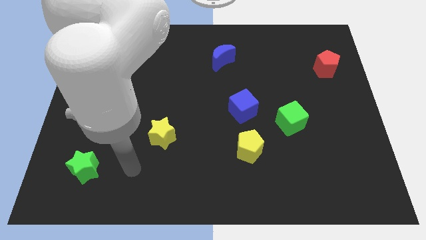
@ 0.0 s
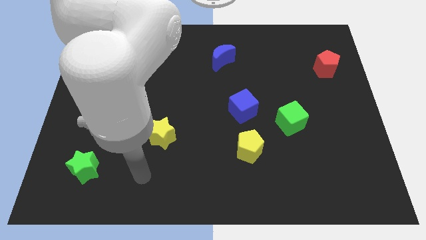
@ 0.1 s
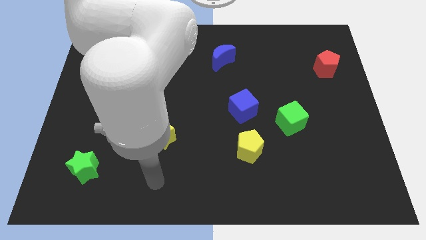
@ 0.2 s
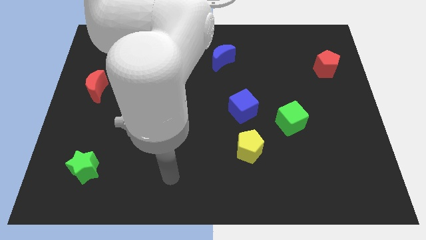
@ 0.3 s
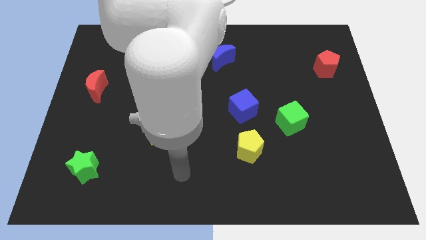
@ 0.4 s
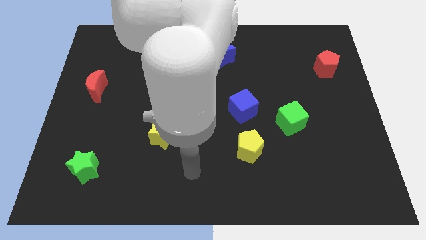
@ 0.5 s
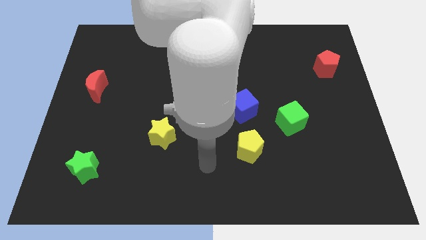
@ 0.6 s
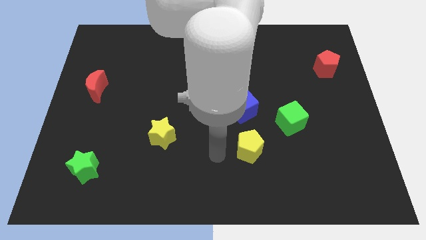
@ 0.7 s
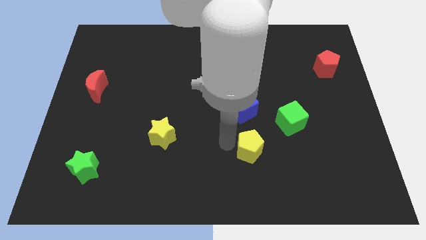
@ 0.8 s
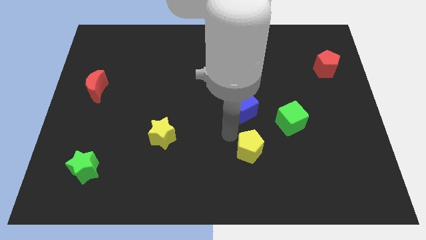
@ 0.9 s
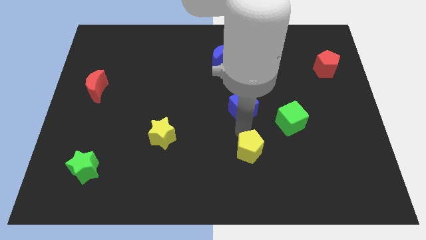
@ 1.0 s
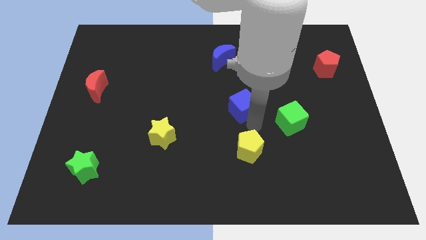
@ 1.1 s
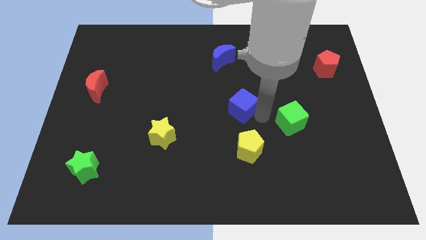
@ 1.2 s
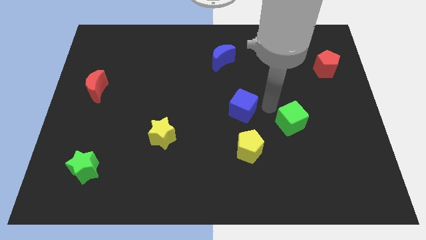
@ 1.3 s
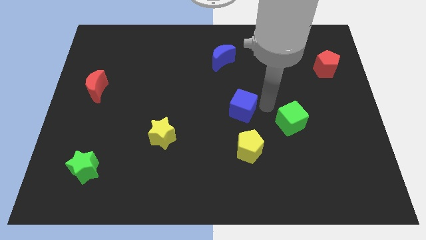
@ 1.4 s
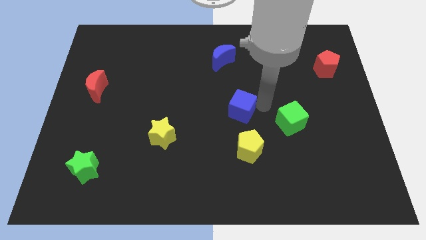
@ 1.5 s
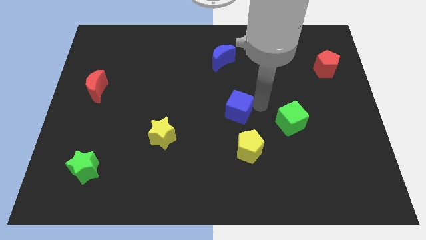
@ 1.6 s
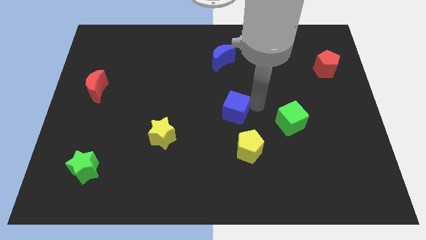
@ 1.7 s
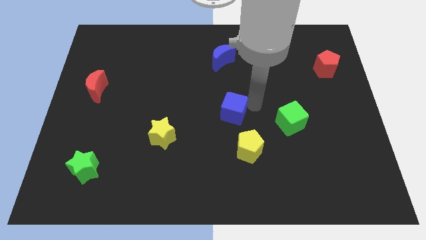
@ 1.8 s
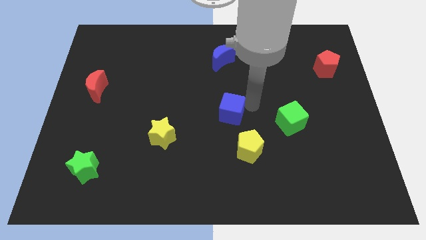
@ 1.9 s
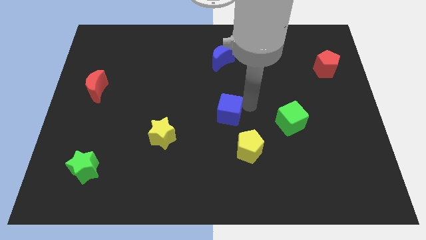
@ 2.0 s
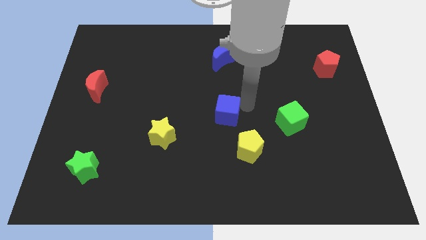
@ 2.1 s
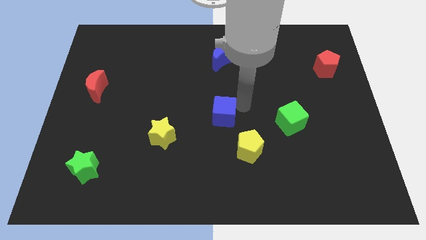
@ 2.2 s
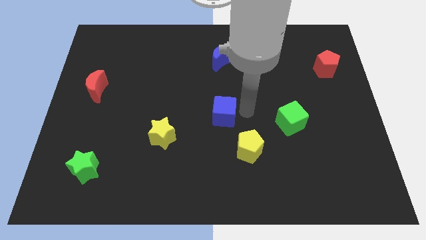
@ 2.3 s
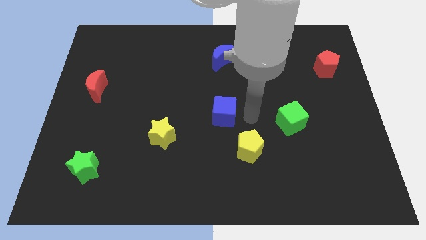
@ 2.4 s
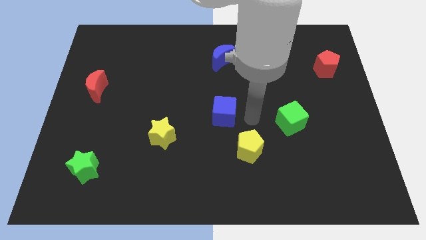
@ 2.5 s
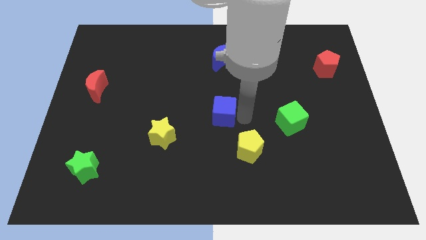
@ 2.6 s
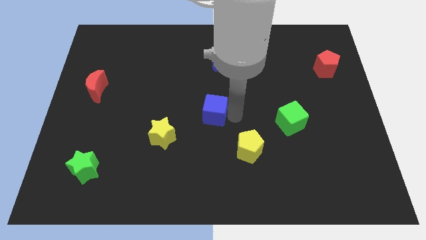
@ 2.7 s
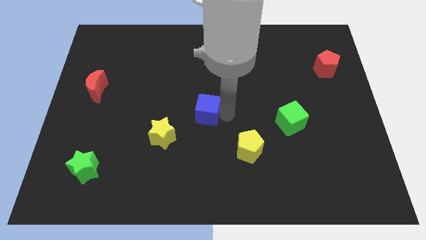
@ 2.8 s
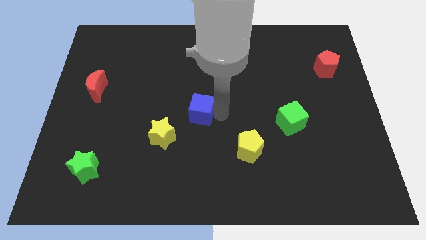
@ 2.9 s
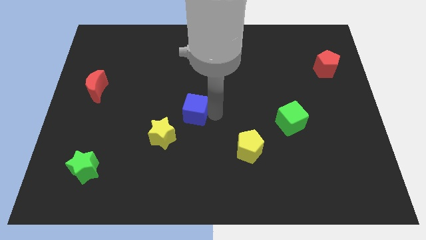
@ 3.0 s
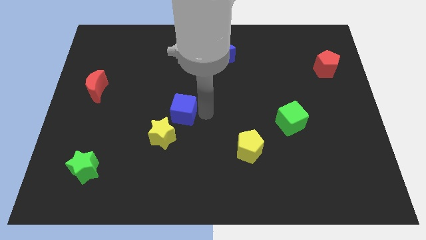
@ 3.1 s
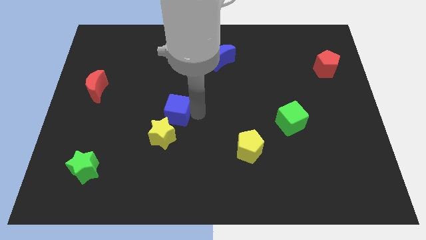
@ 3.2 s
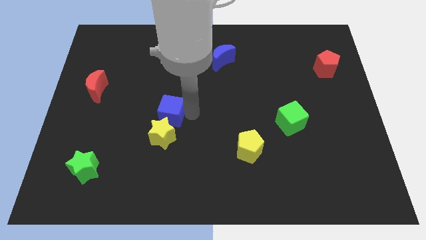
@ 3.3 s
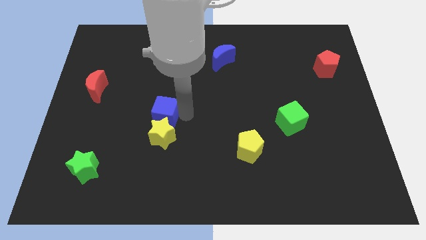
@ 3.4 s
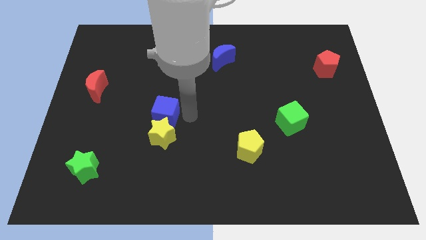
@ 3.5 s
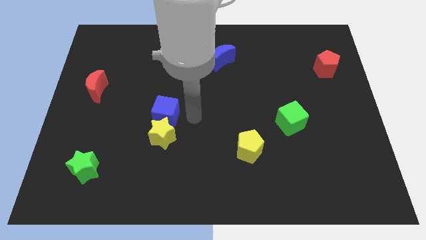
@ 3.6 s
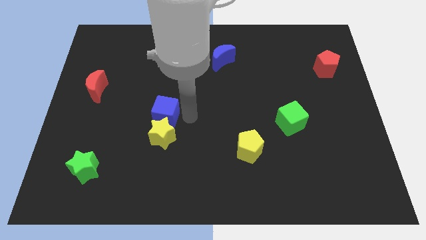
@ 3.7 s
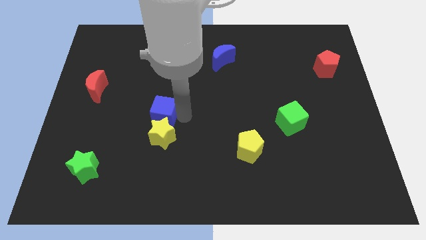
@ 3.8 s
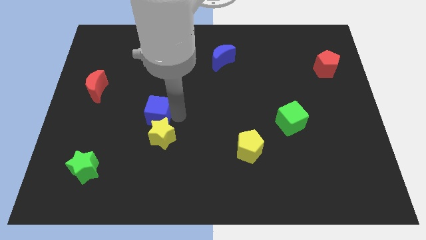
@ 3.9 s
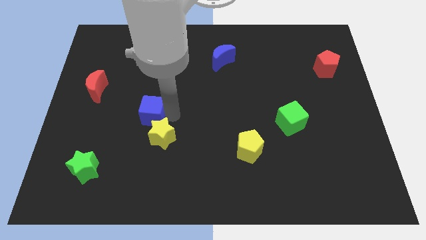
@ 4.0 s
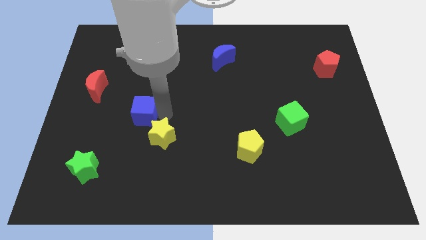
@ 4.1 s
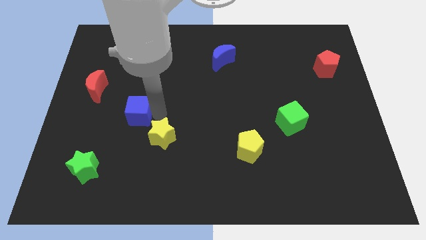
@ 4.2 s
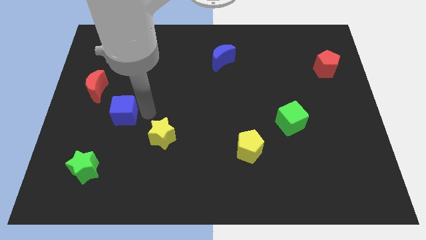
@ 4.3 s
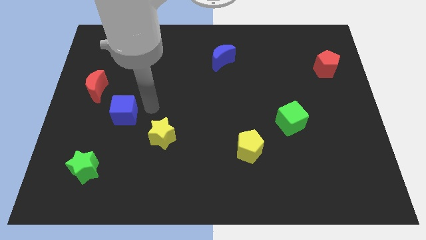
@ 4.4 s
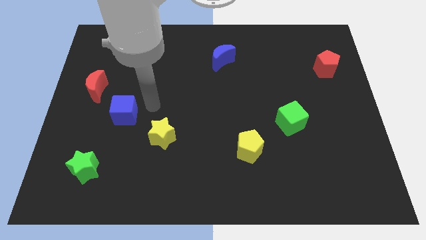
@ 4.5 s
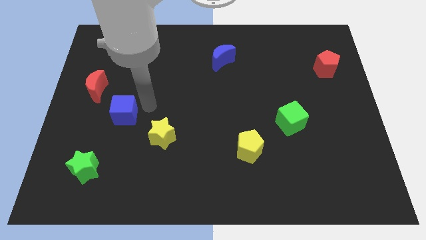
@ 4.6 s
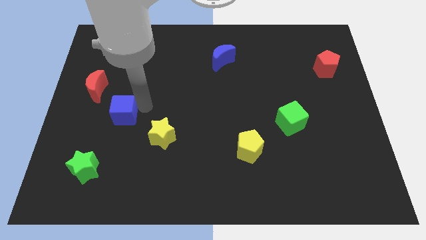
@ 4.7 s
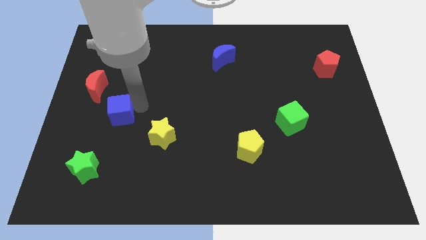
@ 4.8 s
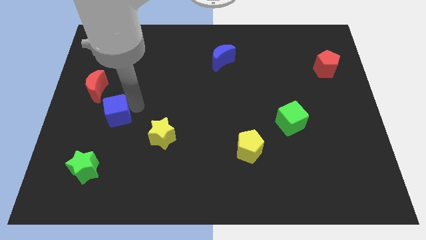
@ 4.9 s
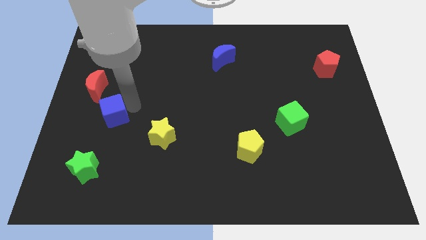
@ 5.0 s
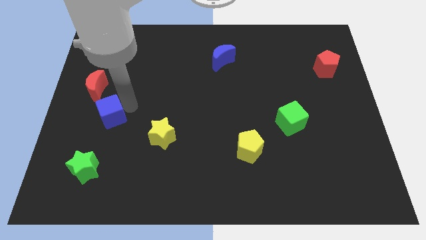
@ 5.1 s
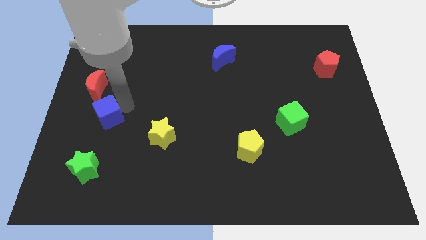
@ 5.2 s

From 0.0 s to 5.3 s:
put the blue cube to the bottom of the red moon

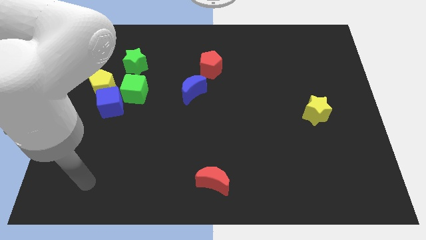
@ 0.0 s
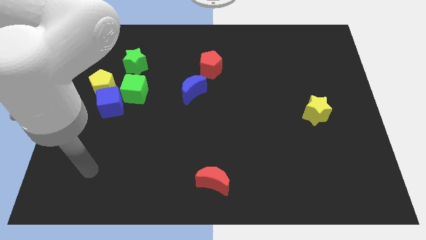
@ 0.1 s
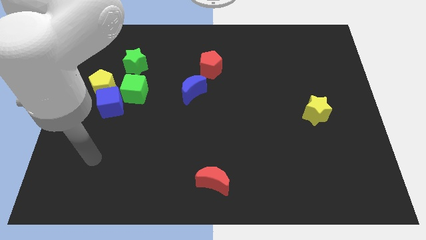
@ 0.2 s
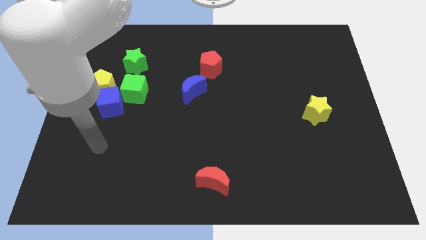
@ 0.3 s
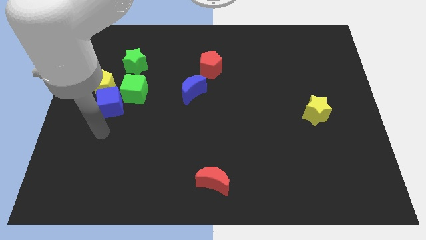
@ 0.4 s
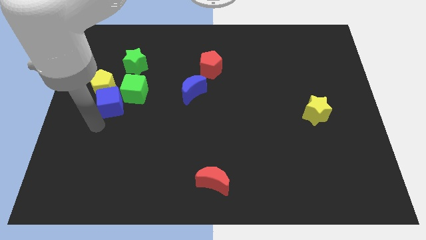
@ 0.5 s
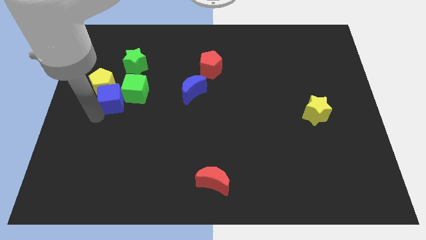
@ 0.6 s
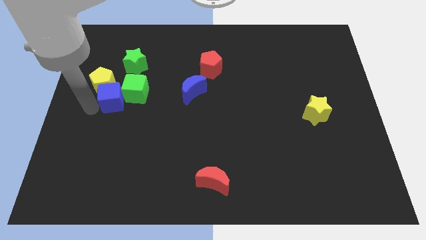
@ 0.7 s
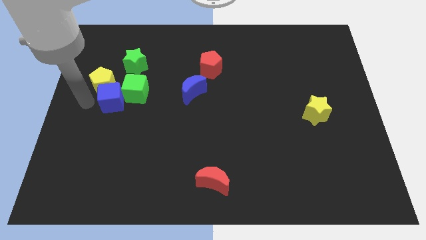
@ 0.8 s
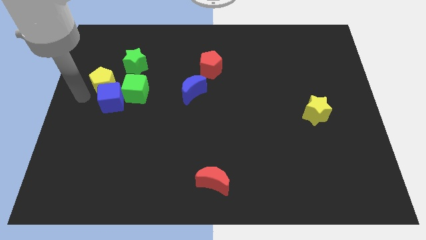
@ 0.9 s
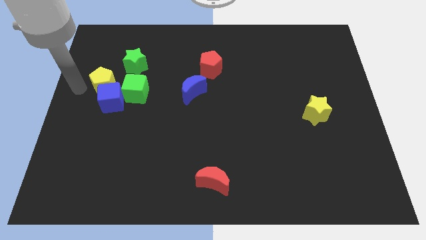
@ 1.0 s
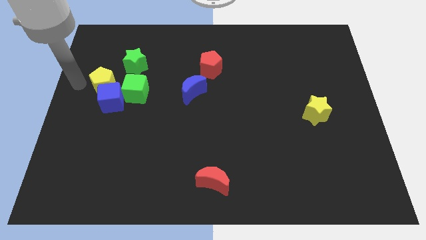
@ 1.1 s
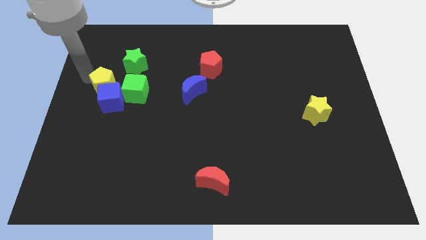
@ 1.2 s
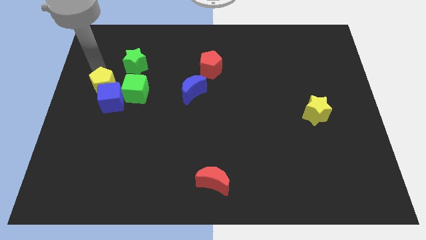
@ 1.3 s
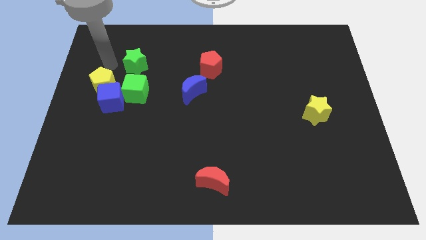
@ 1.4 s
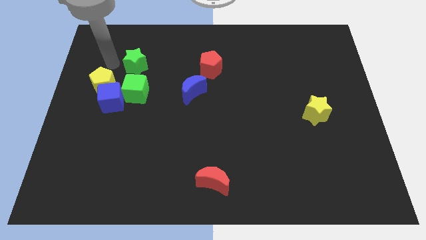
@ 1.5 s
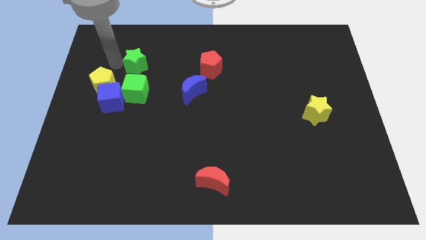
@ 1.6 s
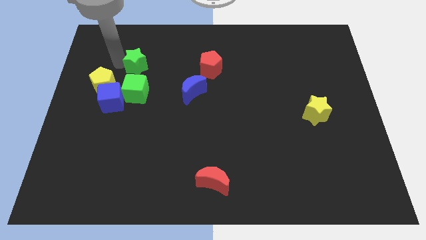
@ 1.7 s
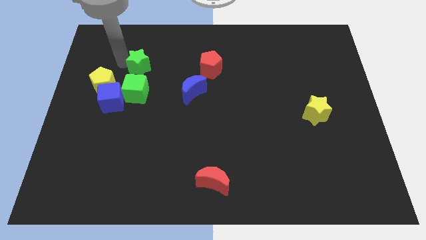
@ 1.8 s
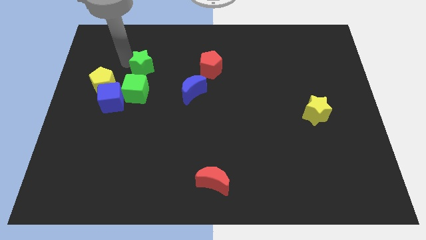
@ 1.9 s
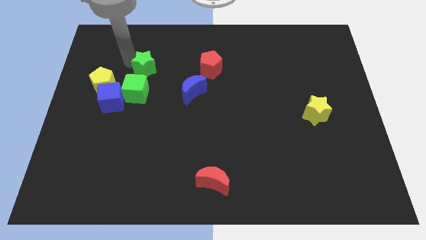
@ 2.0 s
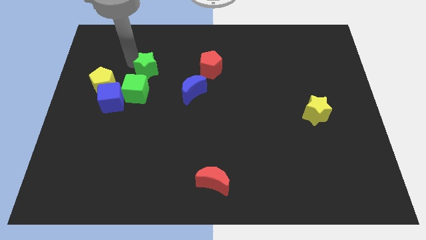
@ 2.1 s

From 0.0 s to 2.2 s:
push the green star left of the red pentagon

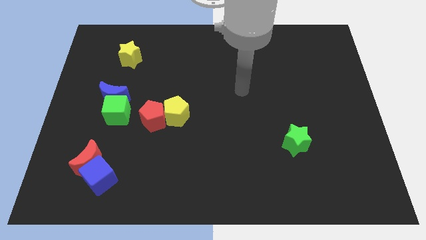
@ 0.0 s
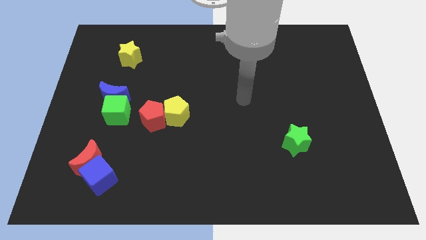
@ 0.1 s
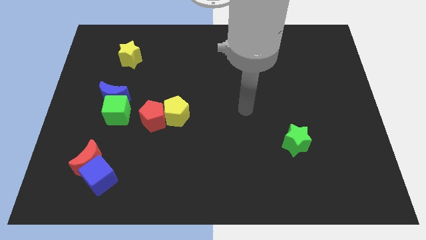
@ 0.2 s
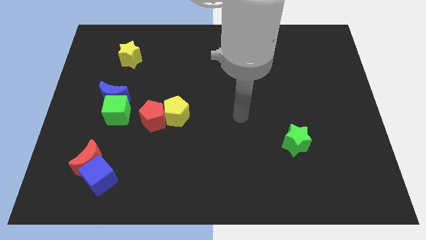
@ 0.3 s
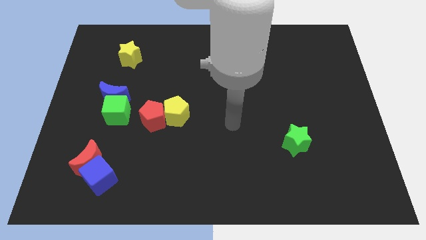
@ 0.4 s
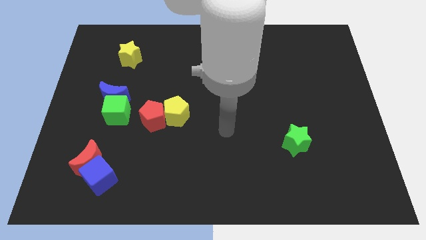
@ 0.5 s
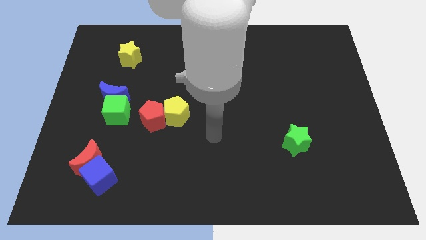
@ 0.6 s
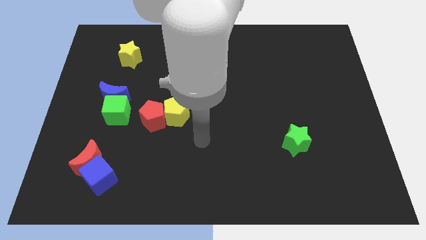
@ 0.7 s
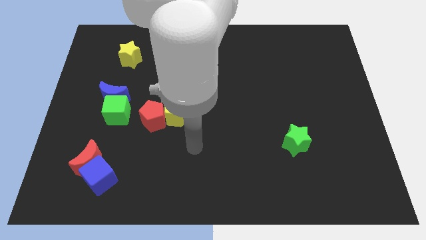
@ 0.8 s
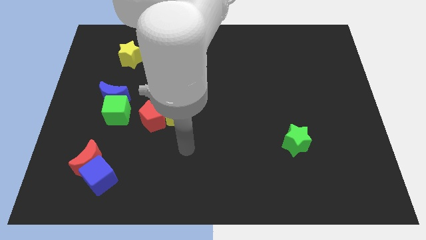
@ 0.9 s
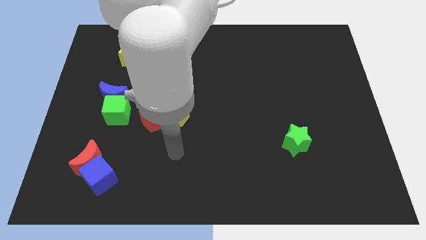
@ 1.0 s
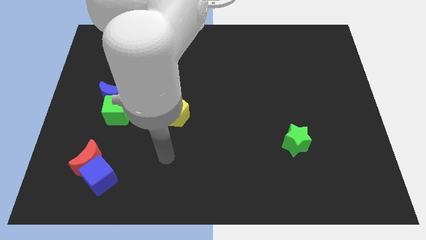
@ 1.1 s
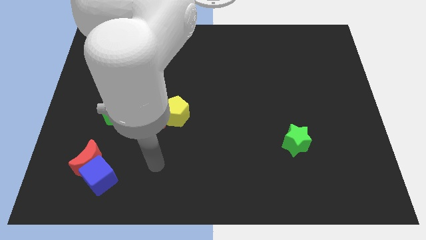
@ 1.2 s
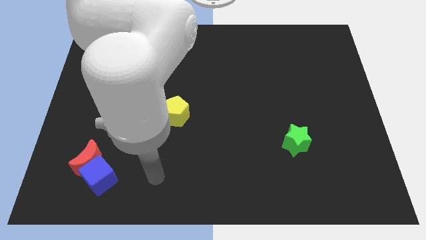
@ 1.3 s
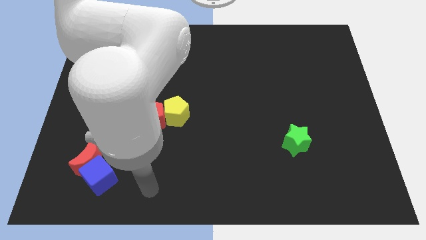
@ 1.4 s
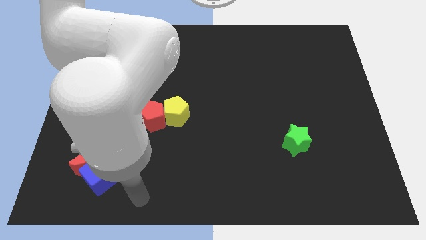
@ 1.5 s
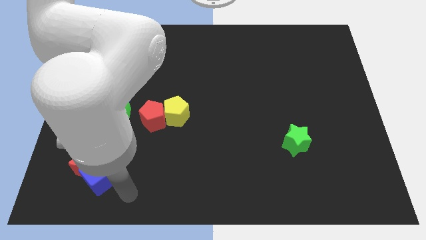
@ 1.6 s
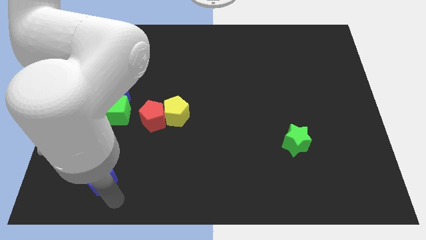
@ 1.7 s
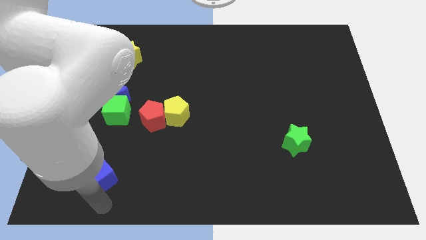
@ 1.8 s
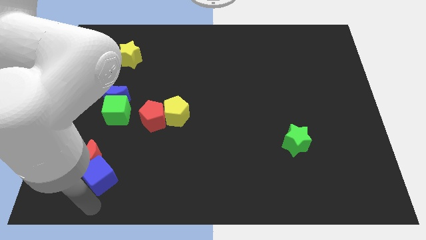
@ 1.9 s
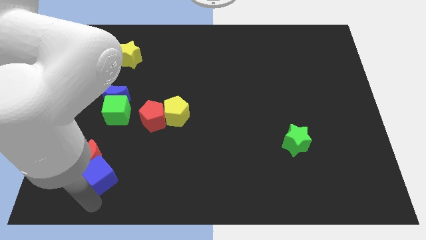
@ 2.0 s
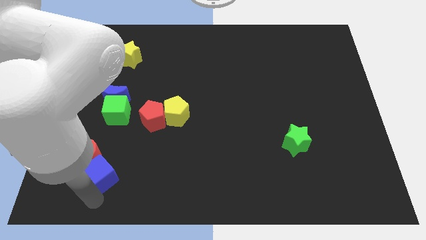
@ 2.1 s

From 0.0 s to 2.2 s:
put the blue cube below the green cube
